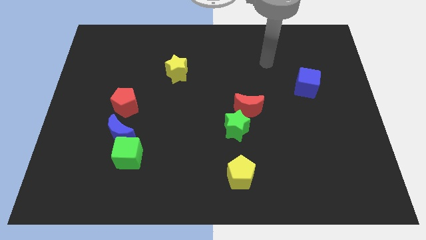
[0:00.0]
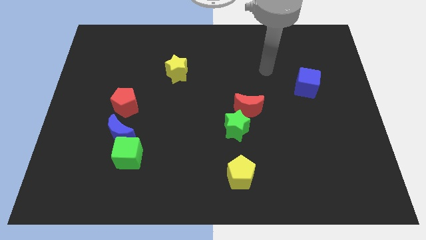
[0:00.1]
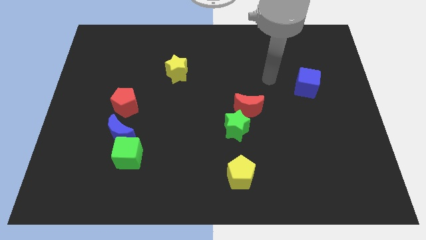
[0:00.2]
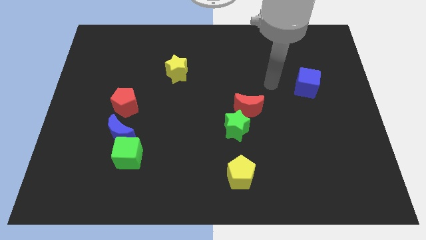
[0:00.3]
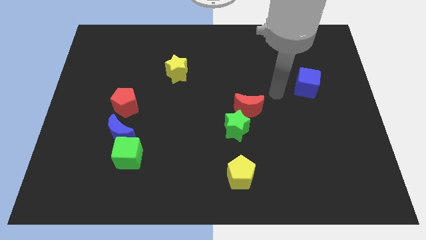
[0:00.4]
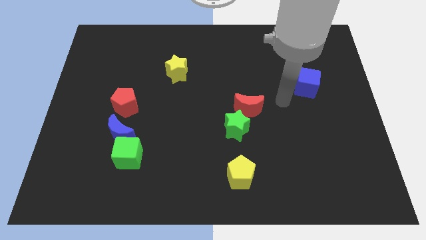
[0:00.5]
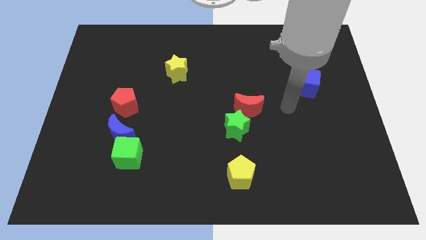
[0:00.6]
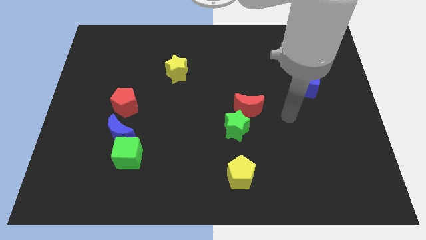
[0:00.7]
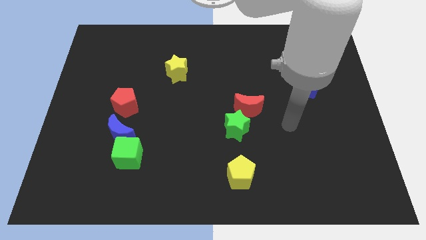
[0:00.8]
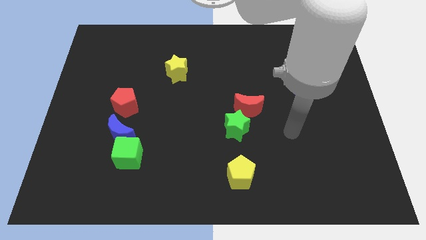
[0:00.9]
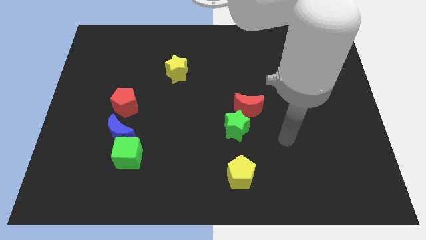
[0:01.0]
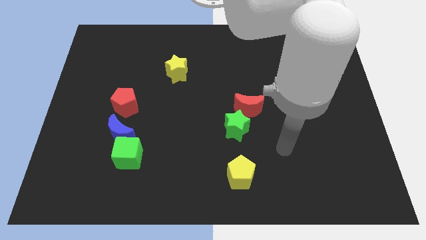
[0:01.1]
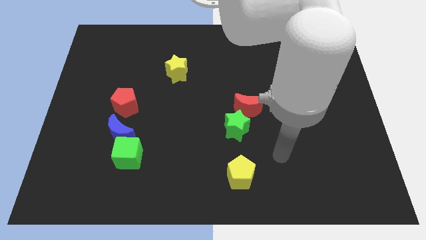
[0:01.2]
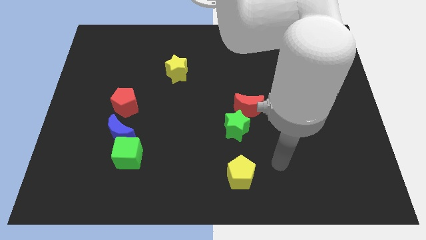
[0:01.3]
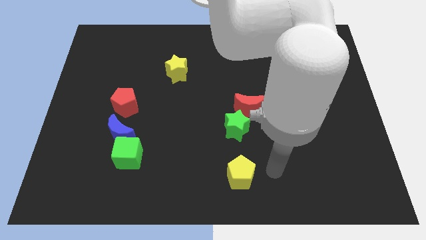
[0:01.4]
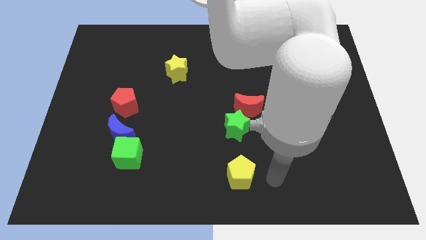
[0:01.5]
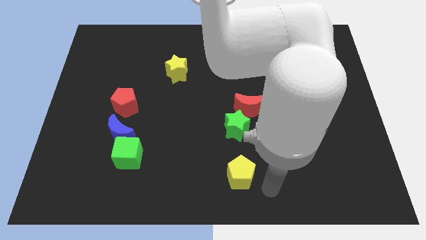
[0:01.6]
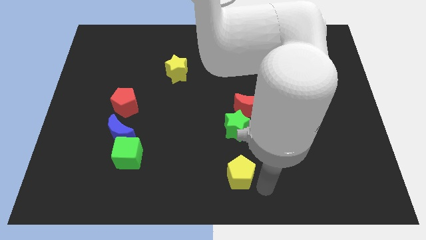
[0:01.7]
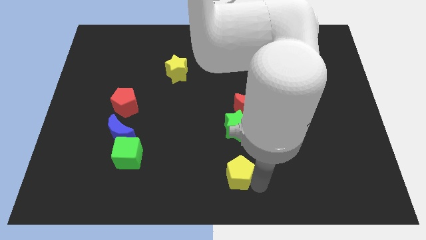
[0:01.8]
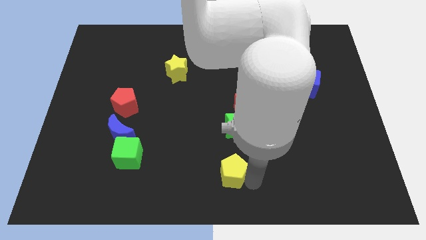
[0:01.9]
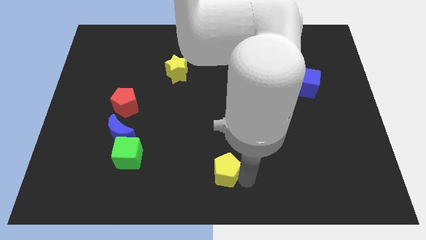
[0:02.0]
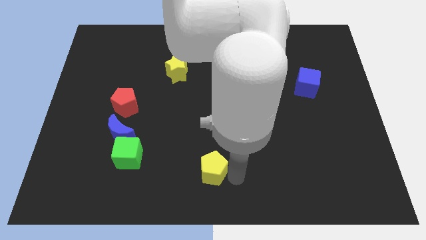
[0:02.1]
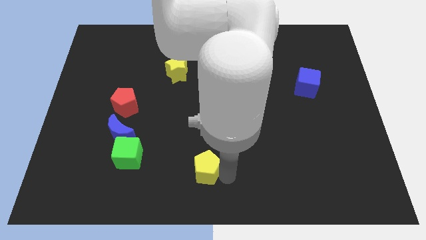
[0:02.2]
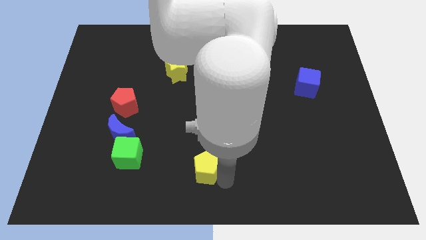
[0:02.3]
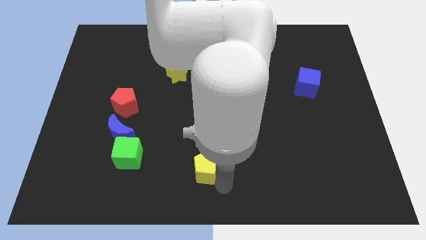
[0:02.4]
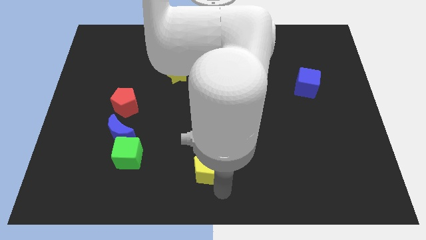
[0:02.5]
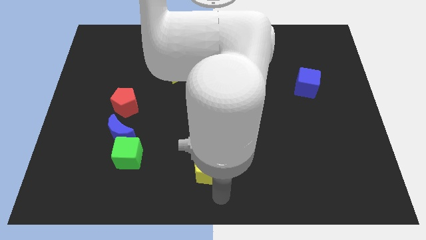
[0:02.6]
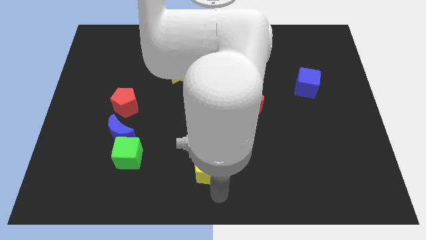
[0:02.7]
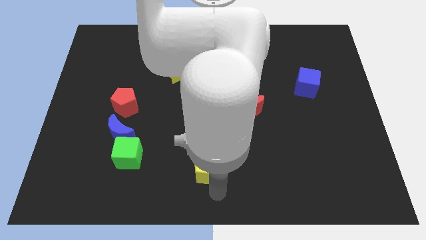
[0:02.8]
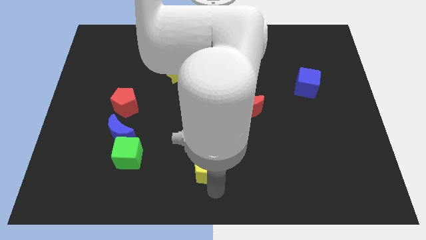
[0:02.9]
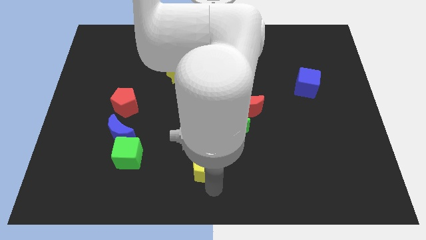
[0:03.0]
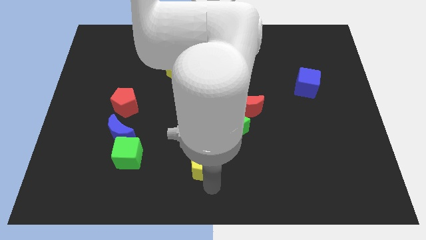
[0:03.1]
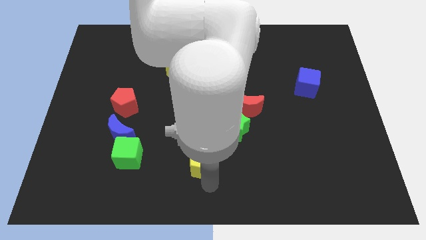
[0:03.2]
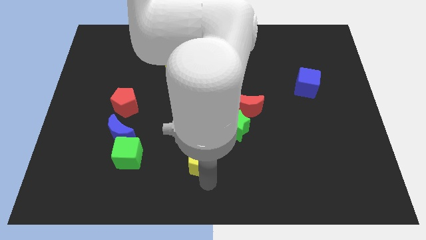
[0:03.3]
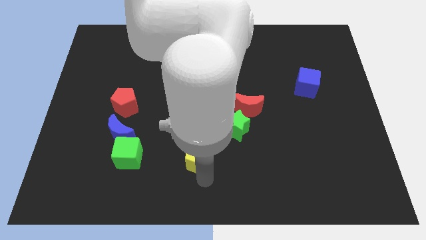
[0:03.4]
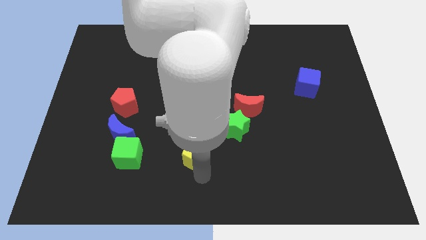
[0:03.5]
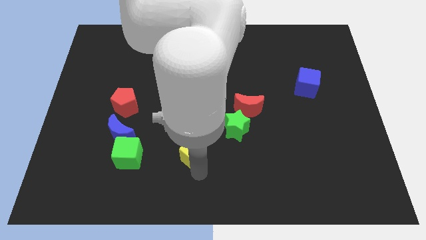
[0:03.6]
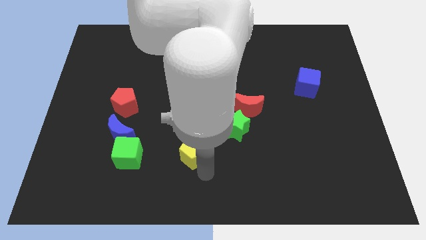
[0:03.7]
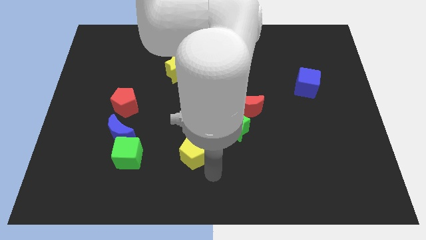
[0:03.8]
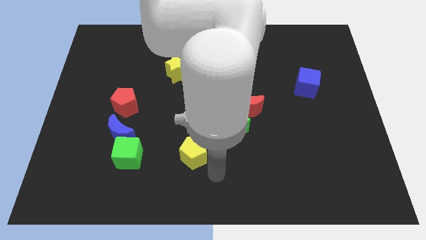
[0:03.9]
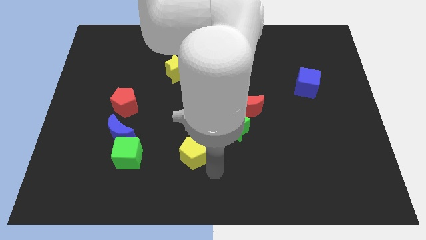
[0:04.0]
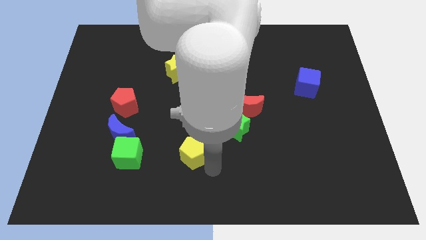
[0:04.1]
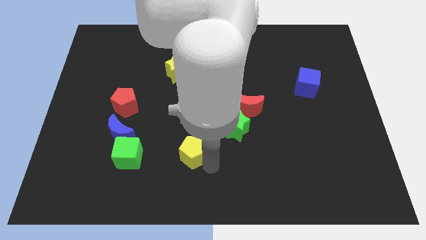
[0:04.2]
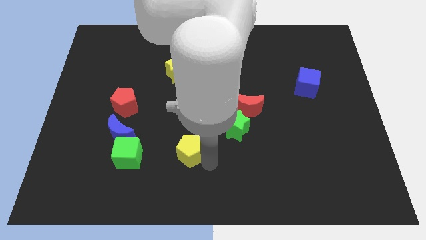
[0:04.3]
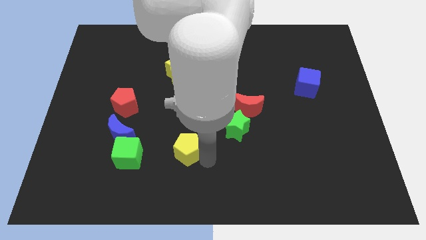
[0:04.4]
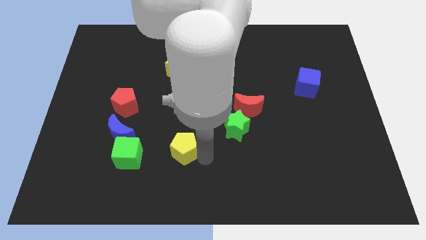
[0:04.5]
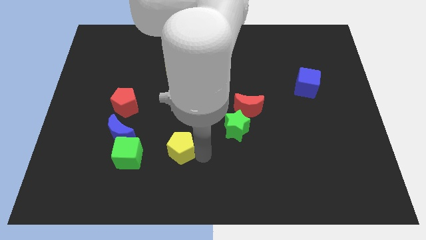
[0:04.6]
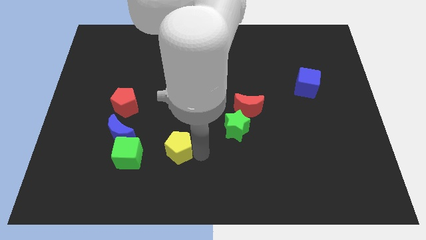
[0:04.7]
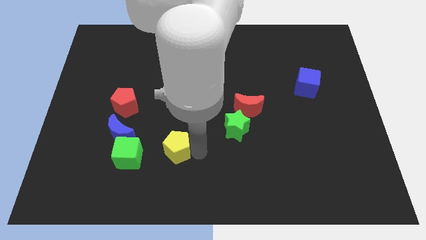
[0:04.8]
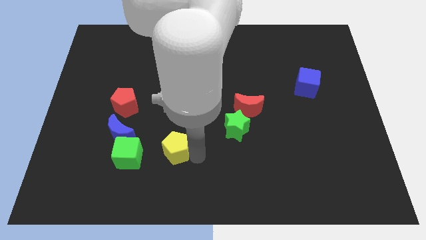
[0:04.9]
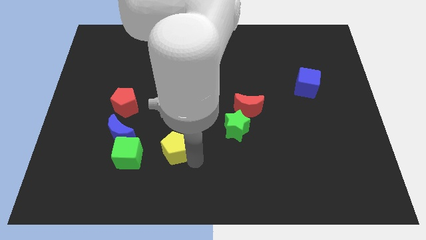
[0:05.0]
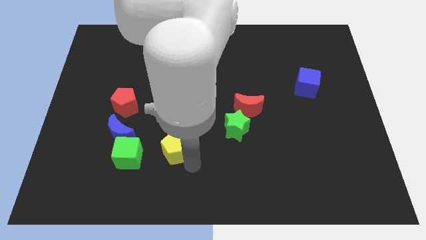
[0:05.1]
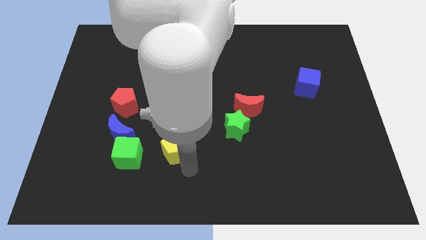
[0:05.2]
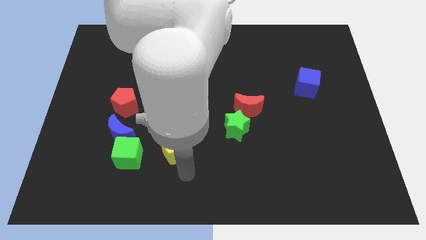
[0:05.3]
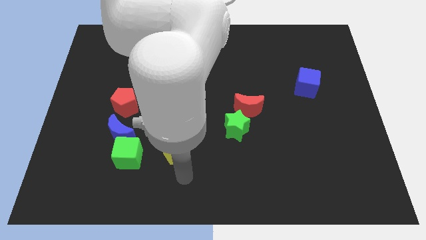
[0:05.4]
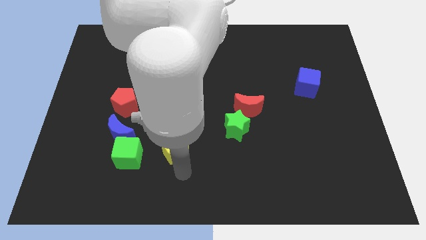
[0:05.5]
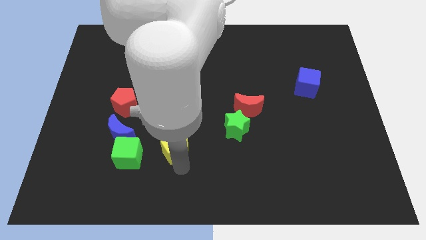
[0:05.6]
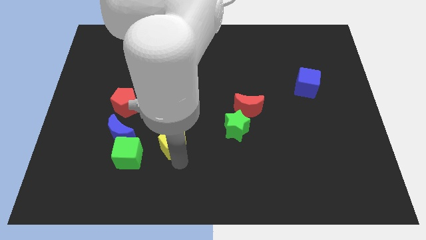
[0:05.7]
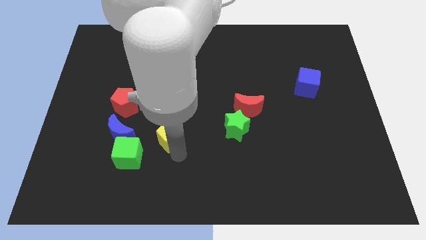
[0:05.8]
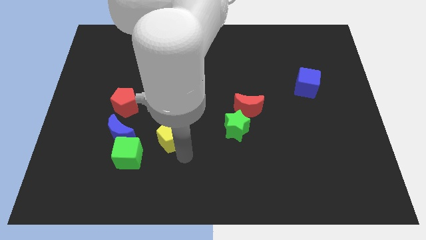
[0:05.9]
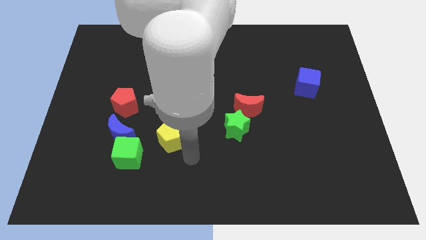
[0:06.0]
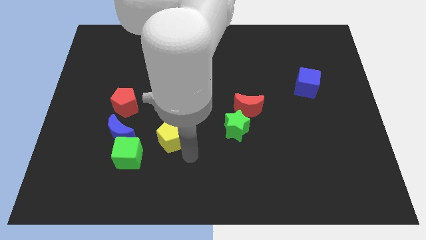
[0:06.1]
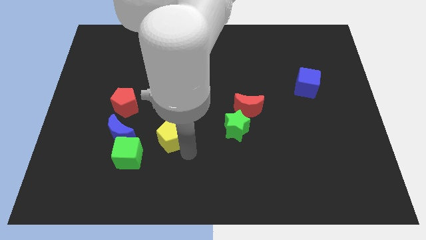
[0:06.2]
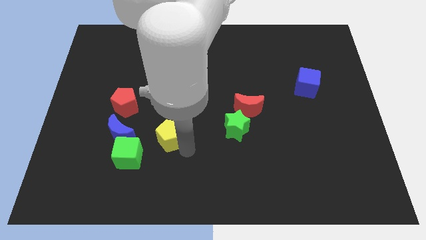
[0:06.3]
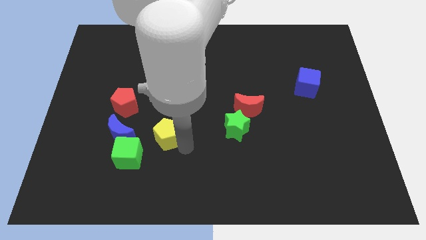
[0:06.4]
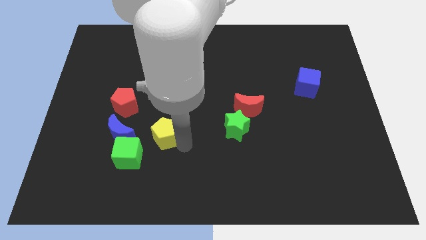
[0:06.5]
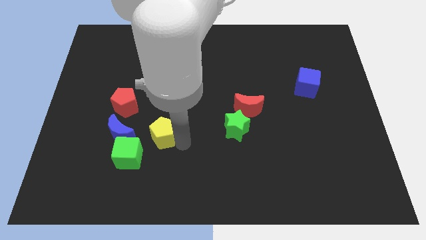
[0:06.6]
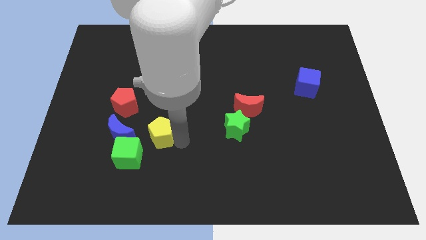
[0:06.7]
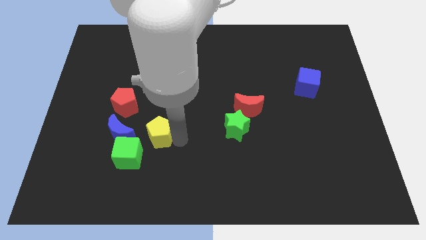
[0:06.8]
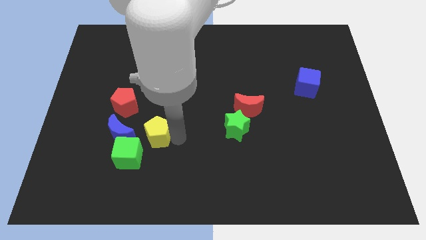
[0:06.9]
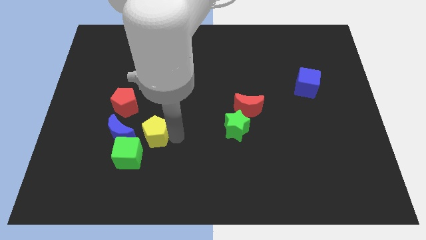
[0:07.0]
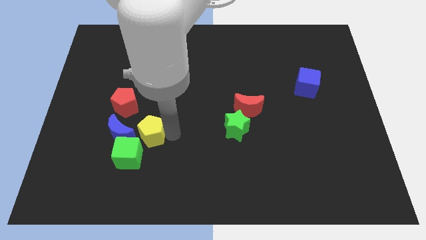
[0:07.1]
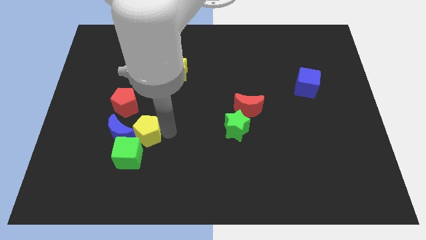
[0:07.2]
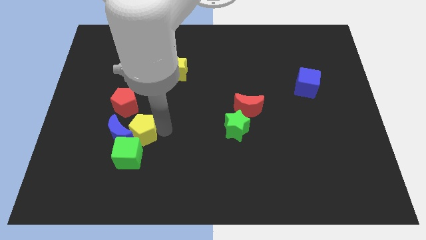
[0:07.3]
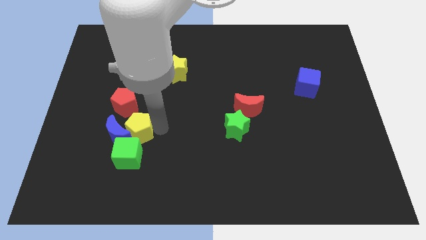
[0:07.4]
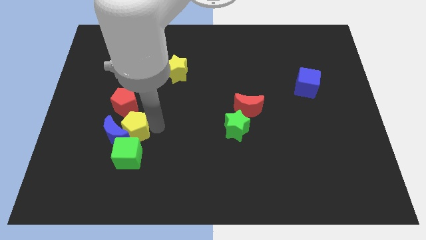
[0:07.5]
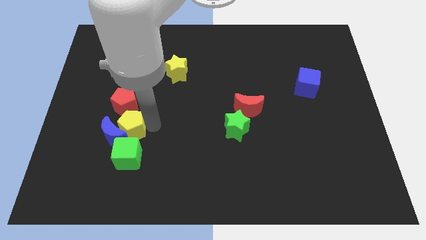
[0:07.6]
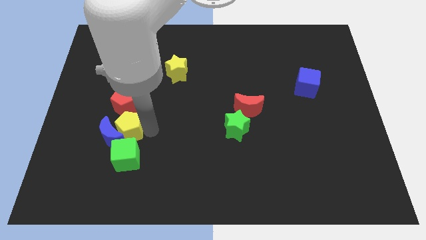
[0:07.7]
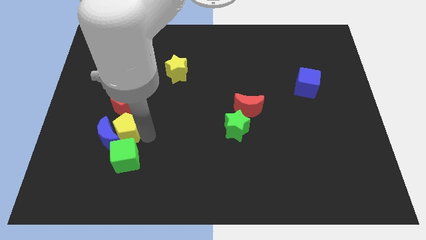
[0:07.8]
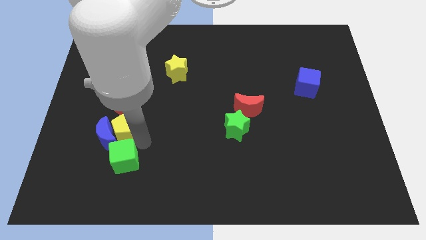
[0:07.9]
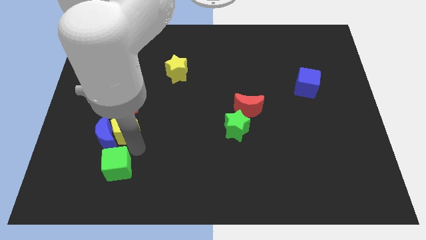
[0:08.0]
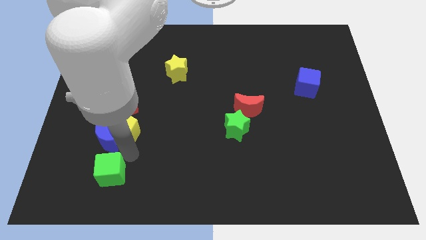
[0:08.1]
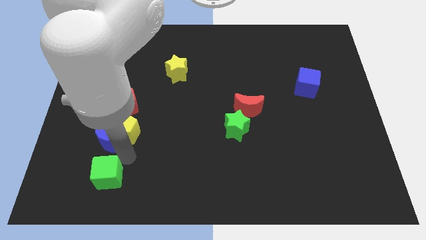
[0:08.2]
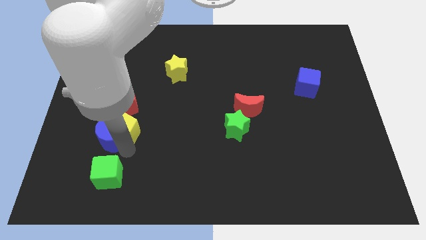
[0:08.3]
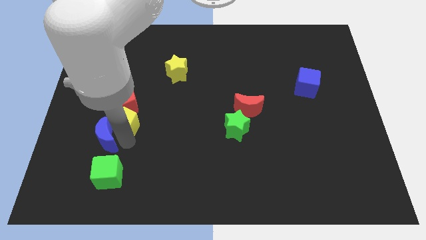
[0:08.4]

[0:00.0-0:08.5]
slide the yellow pentagon to the red pentagon
